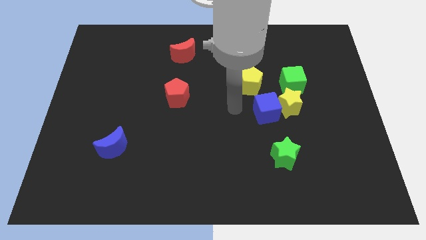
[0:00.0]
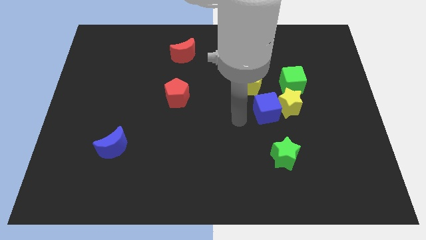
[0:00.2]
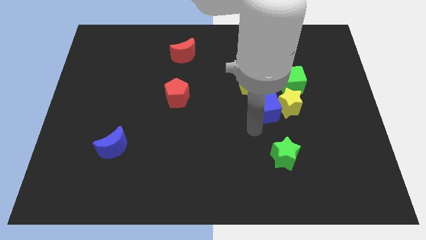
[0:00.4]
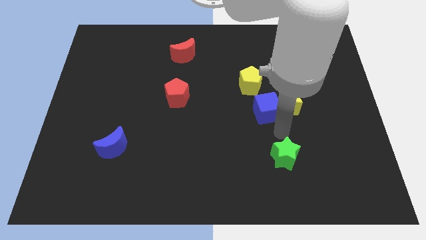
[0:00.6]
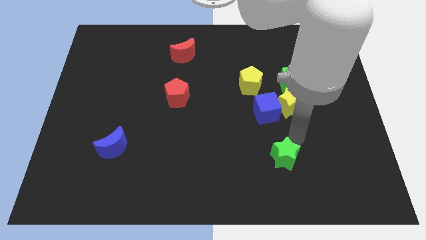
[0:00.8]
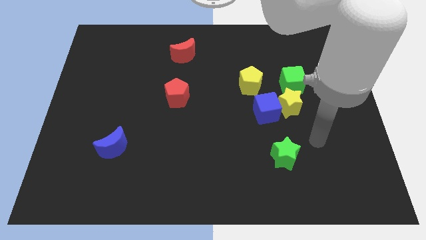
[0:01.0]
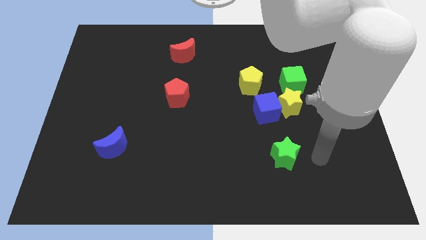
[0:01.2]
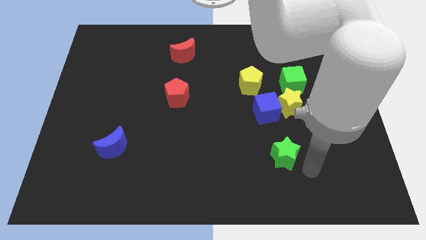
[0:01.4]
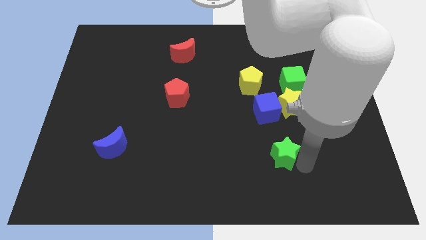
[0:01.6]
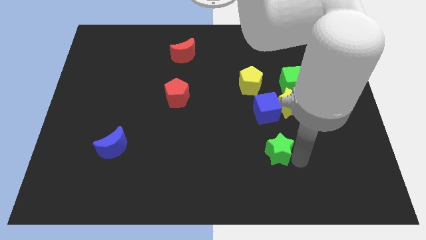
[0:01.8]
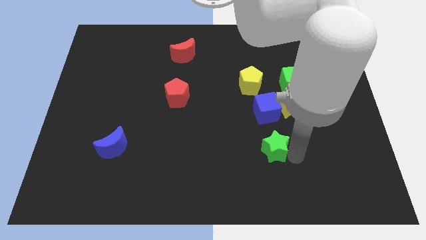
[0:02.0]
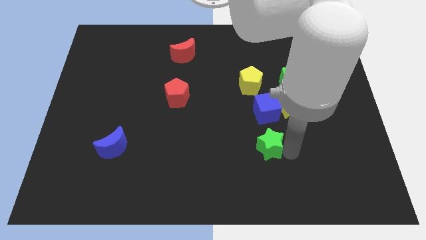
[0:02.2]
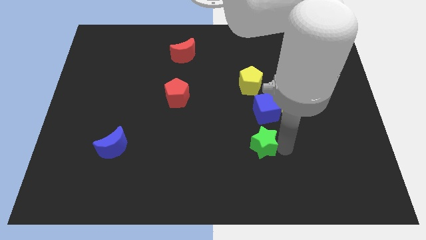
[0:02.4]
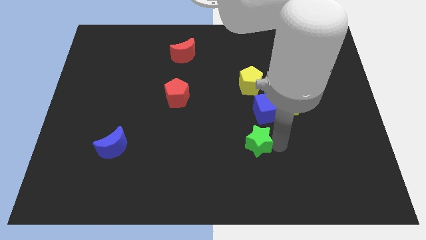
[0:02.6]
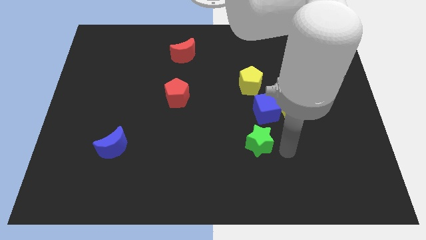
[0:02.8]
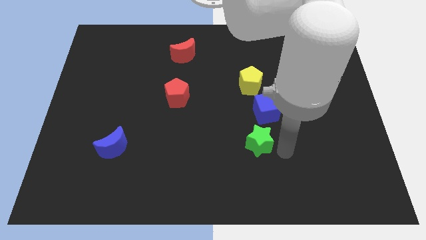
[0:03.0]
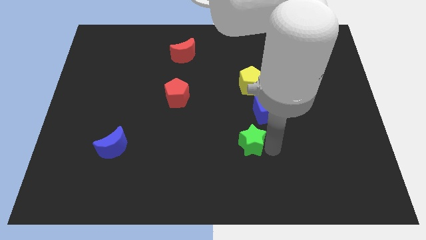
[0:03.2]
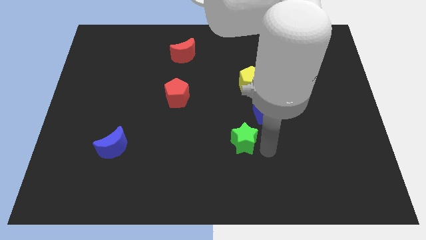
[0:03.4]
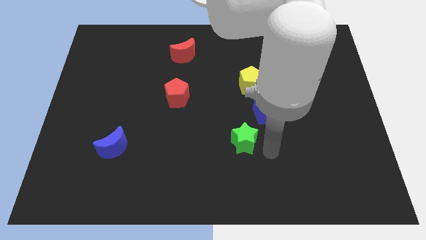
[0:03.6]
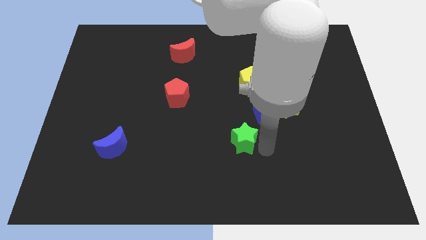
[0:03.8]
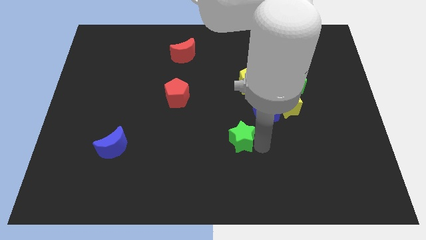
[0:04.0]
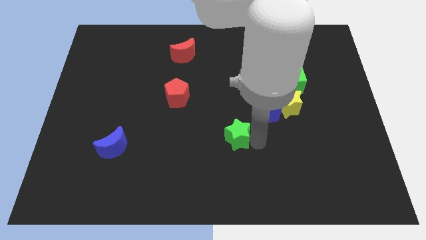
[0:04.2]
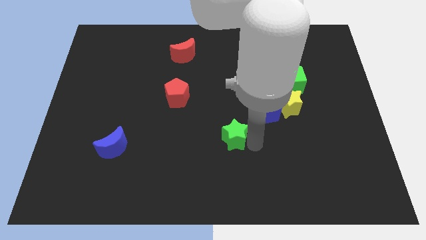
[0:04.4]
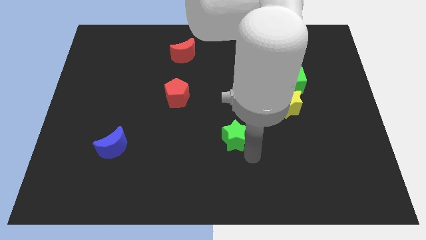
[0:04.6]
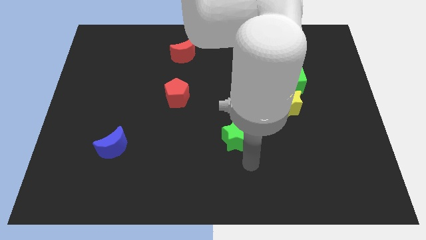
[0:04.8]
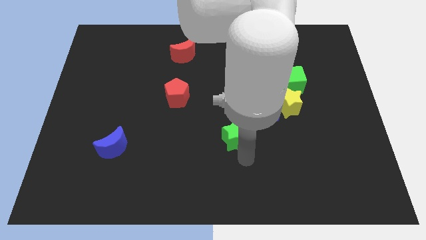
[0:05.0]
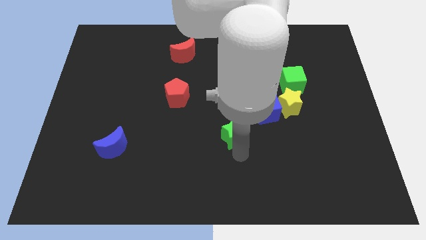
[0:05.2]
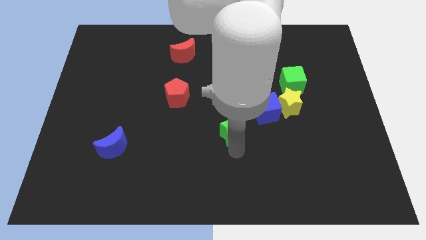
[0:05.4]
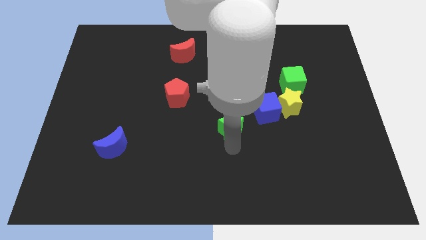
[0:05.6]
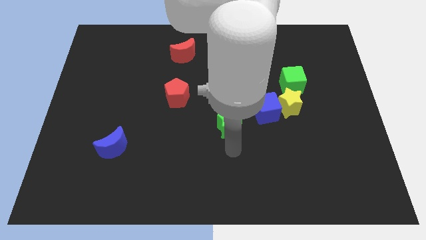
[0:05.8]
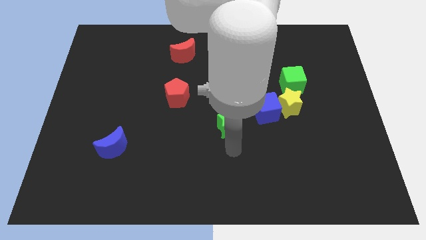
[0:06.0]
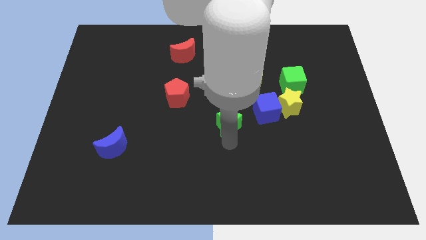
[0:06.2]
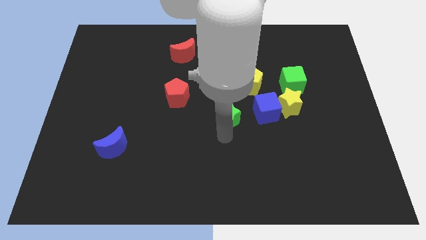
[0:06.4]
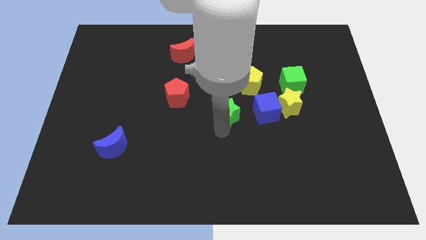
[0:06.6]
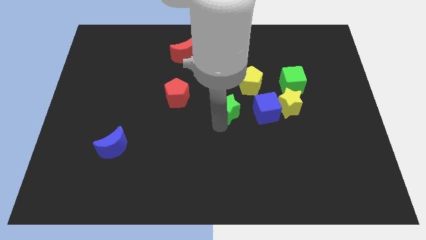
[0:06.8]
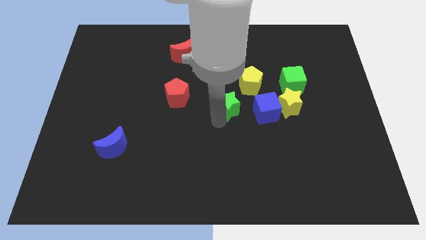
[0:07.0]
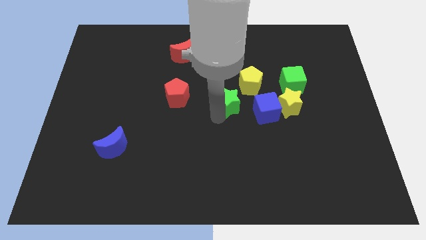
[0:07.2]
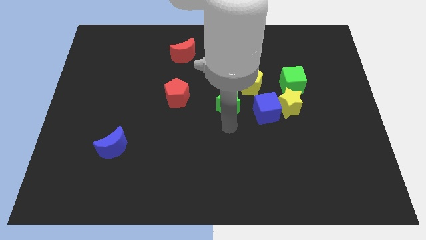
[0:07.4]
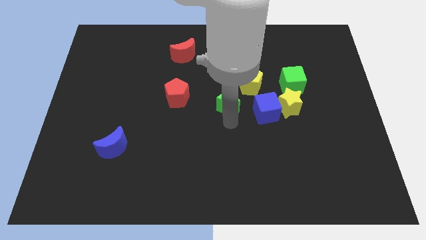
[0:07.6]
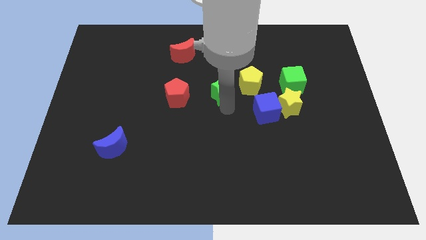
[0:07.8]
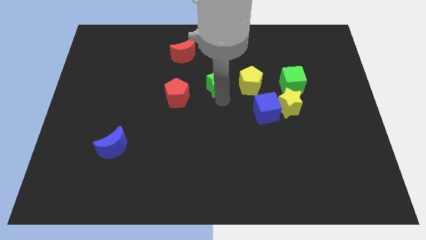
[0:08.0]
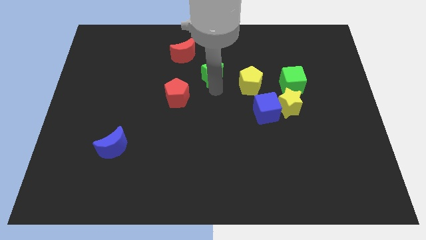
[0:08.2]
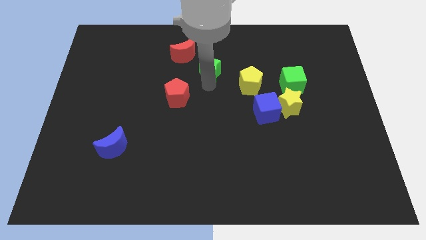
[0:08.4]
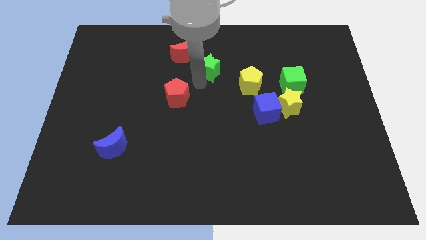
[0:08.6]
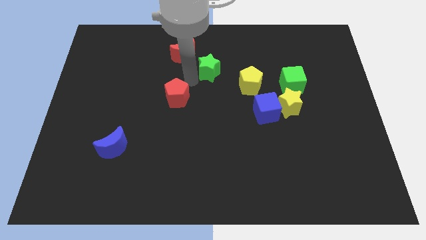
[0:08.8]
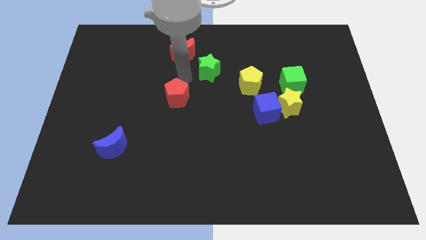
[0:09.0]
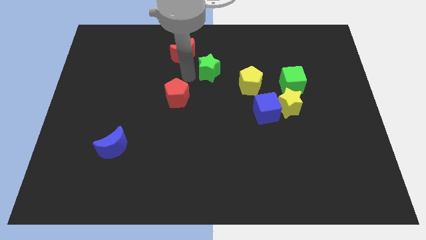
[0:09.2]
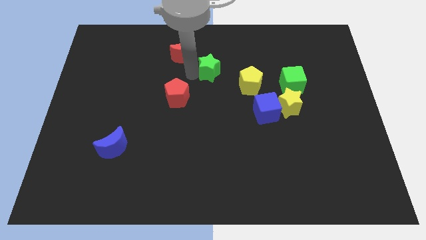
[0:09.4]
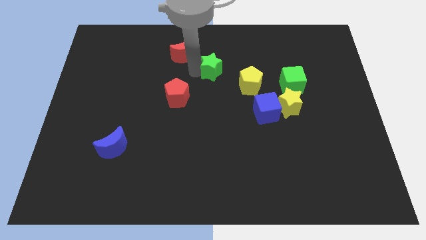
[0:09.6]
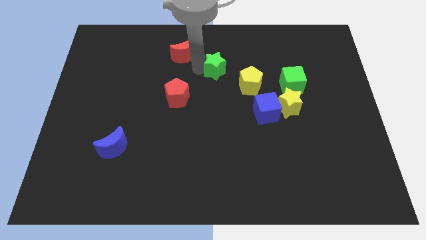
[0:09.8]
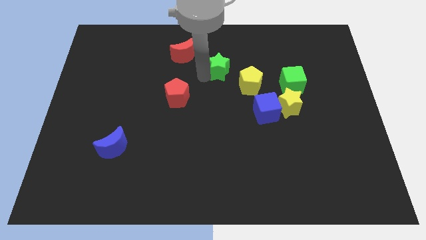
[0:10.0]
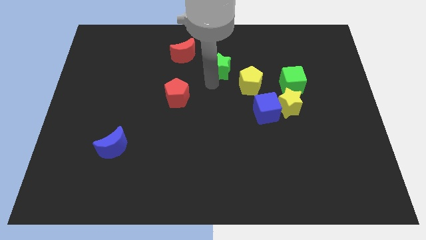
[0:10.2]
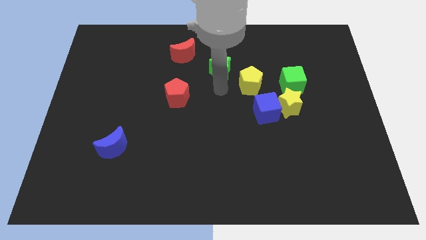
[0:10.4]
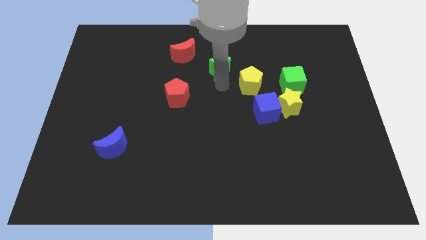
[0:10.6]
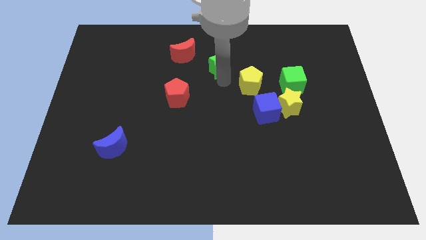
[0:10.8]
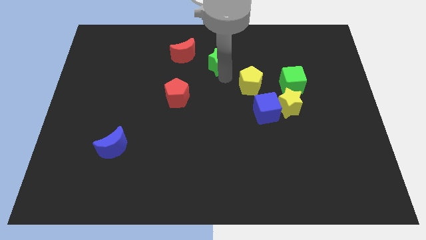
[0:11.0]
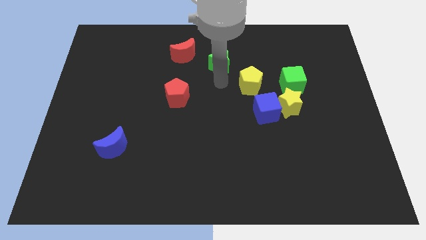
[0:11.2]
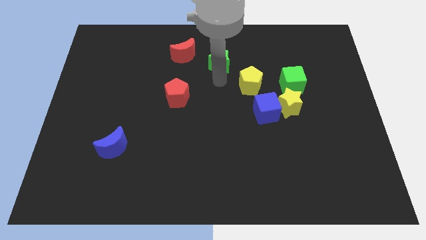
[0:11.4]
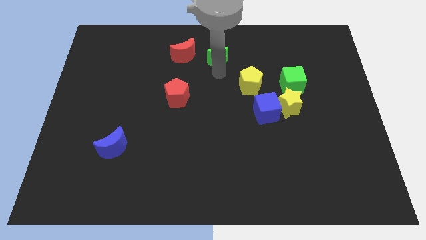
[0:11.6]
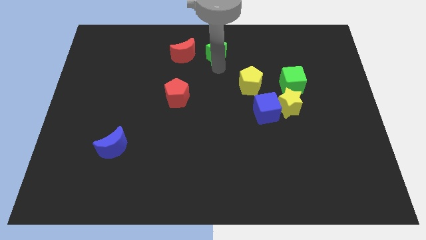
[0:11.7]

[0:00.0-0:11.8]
move the green star to the top side
